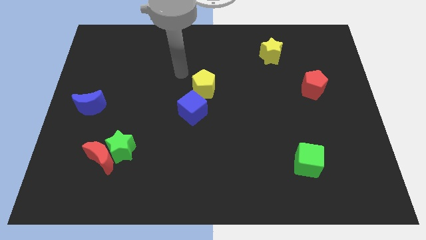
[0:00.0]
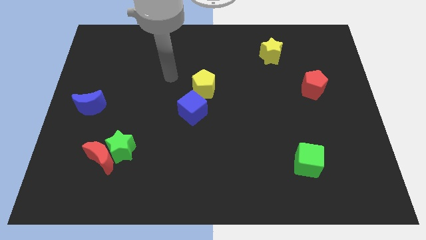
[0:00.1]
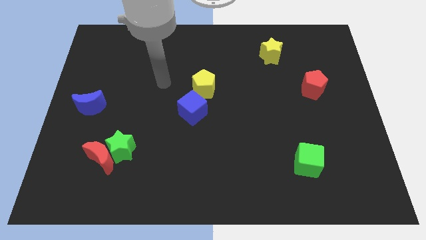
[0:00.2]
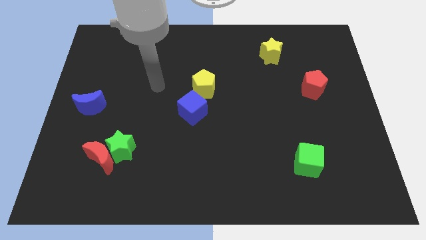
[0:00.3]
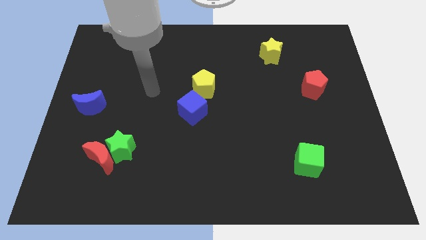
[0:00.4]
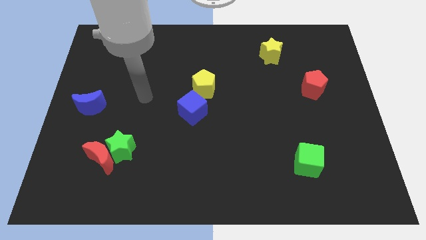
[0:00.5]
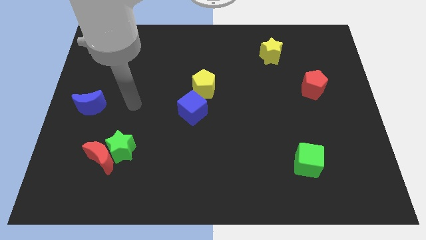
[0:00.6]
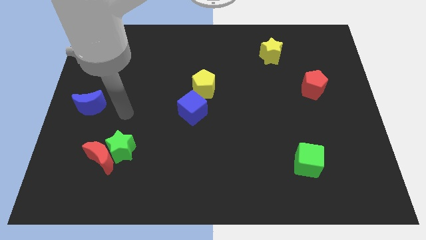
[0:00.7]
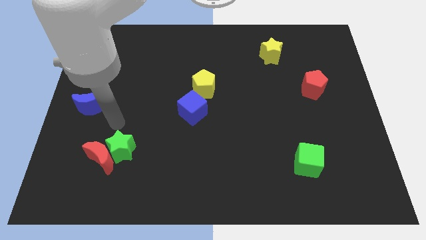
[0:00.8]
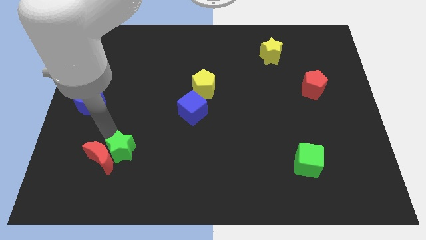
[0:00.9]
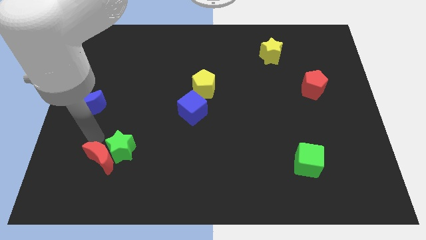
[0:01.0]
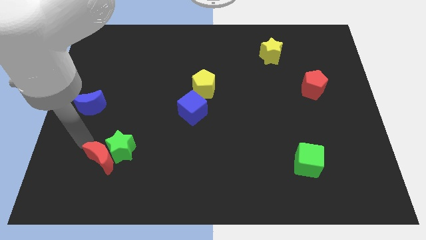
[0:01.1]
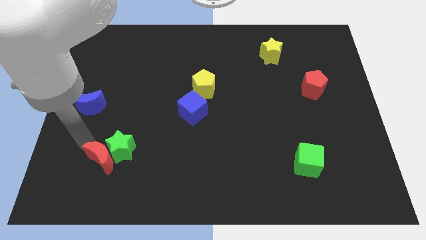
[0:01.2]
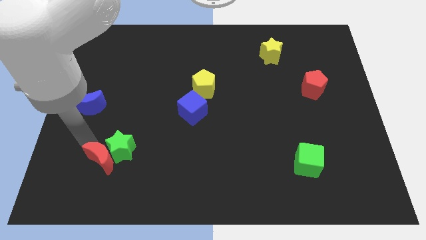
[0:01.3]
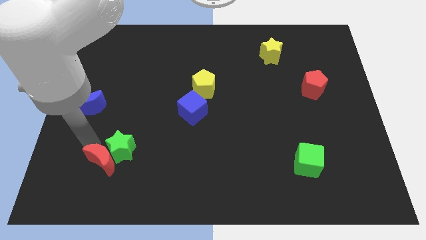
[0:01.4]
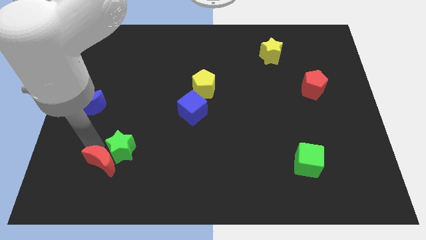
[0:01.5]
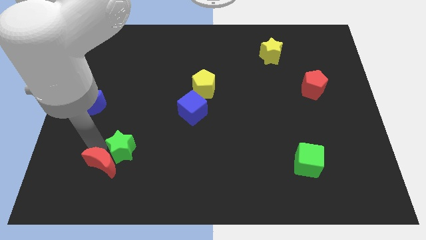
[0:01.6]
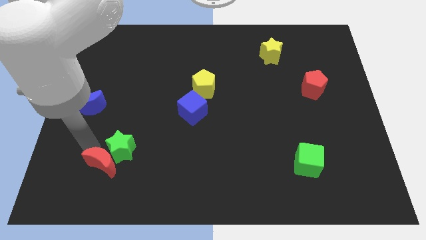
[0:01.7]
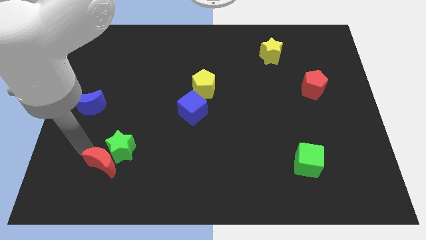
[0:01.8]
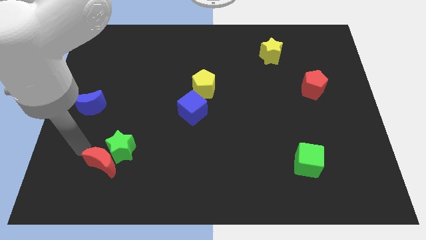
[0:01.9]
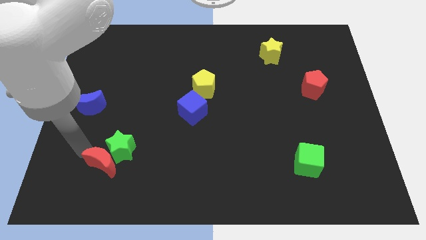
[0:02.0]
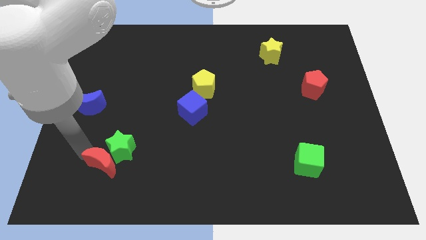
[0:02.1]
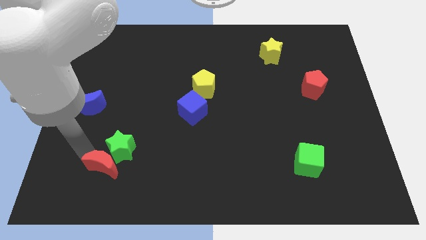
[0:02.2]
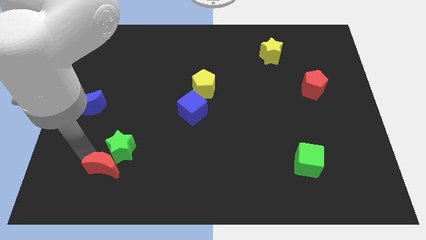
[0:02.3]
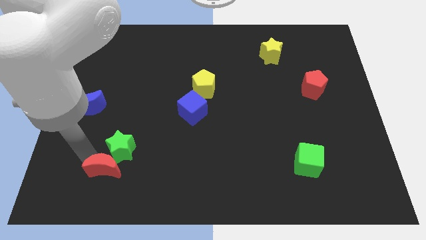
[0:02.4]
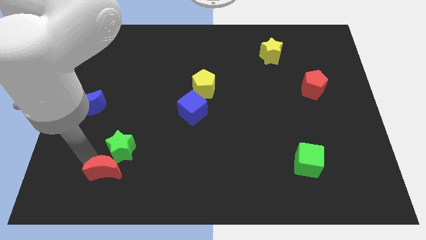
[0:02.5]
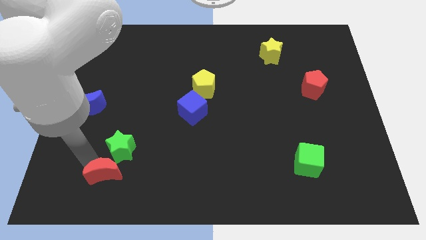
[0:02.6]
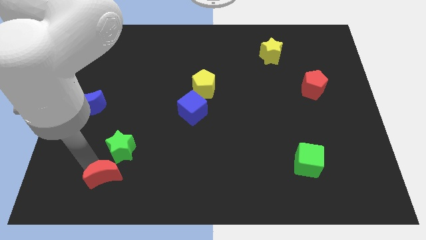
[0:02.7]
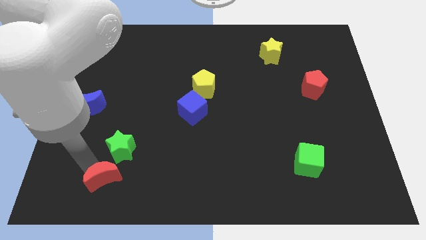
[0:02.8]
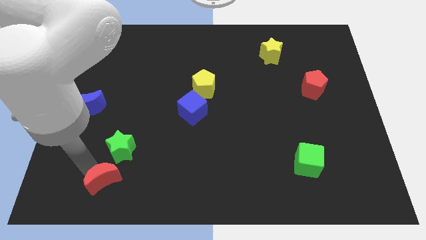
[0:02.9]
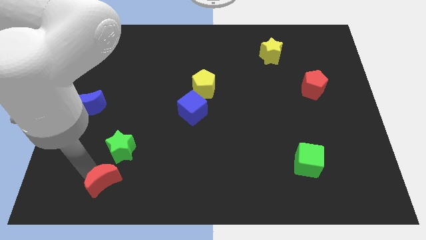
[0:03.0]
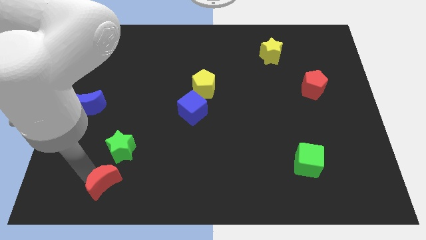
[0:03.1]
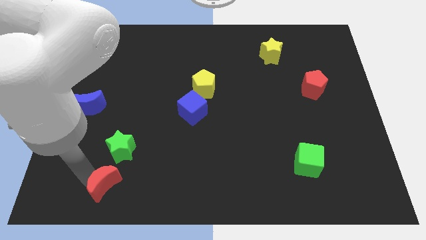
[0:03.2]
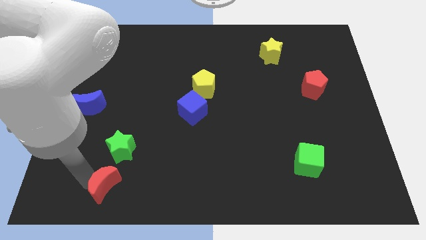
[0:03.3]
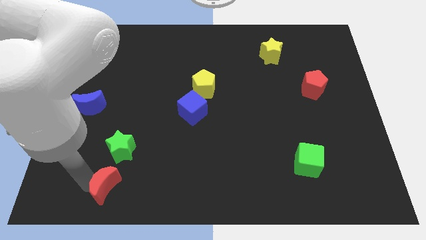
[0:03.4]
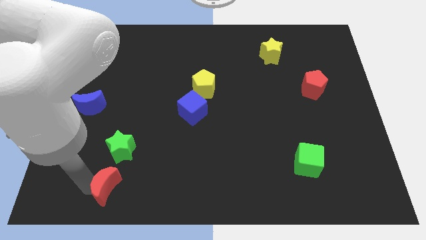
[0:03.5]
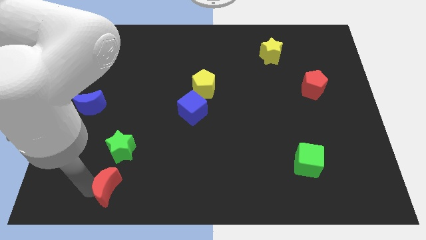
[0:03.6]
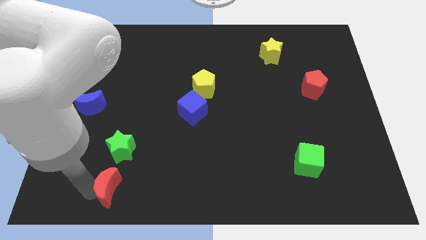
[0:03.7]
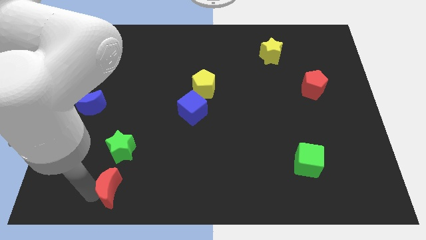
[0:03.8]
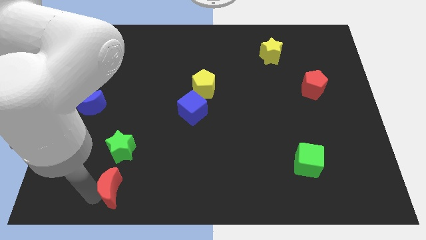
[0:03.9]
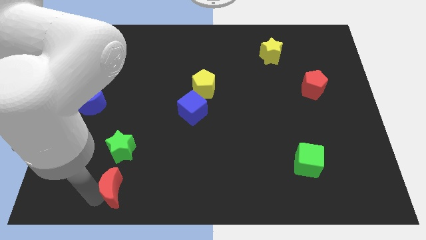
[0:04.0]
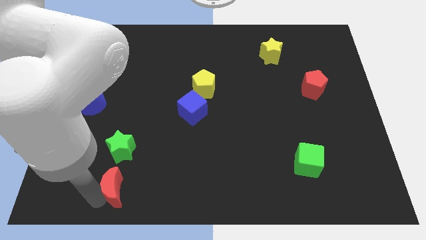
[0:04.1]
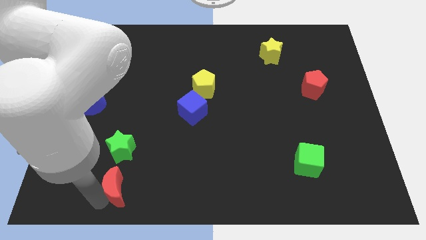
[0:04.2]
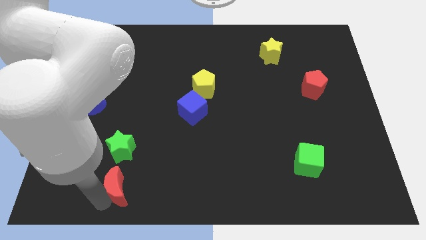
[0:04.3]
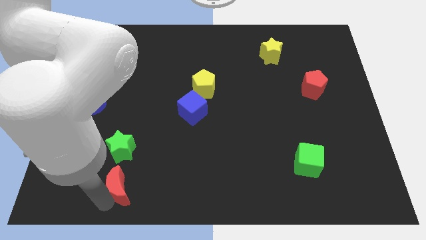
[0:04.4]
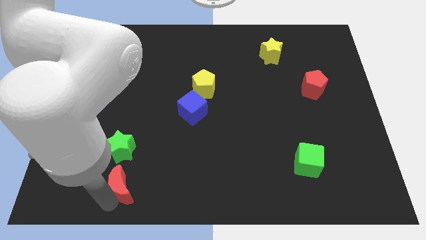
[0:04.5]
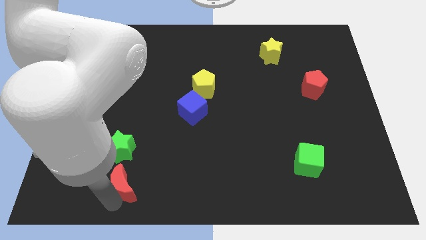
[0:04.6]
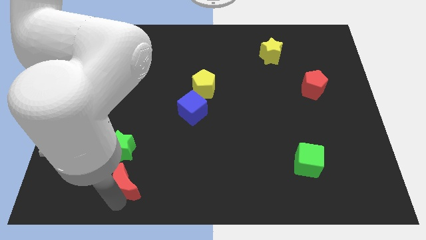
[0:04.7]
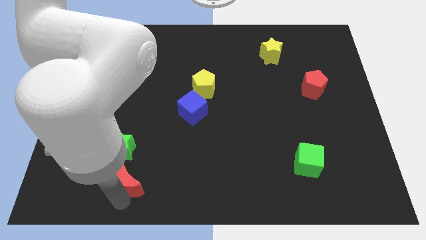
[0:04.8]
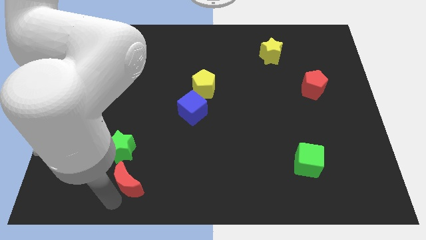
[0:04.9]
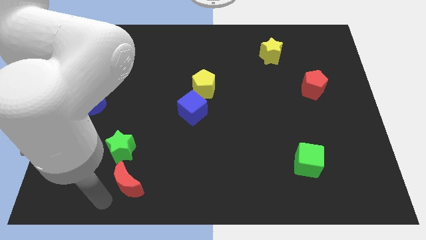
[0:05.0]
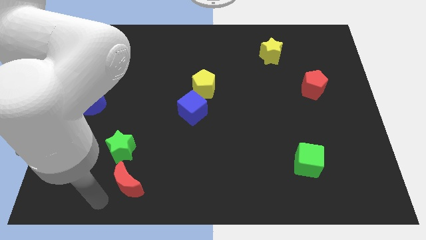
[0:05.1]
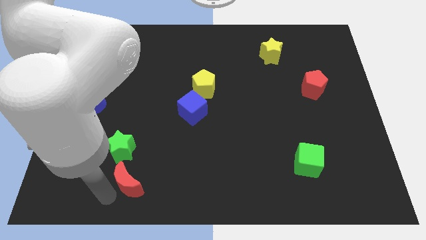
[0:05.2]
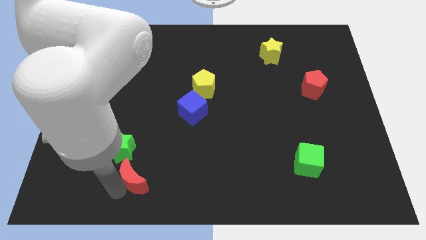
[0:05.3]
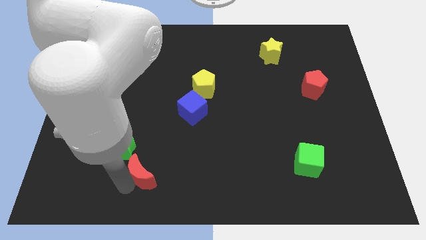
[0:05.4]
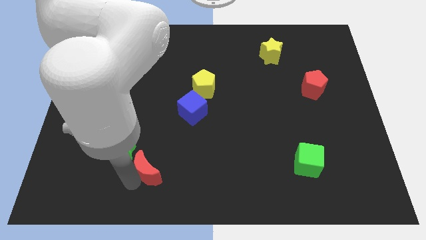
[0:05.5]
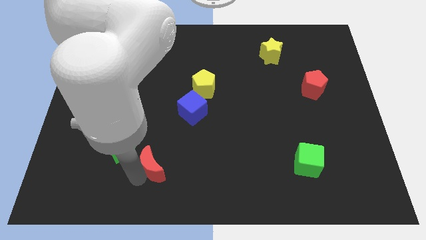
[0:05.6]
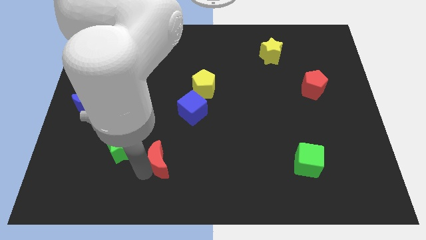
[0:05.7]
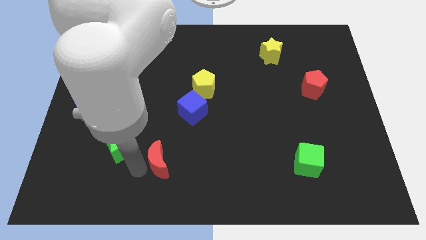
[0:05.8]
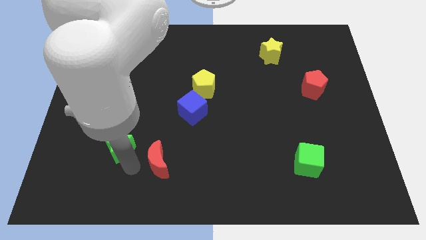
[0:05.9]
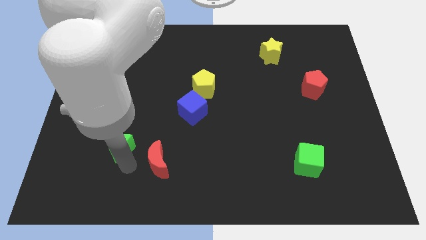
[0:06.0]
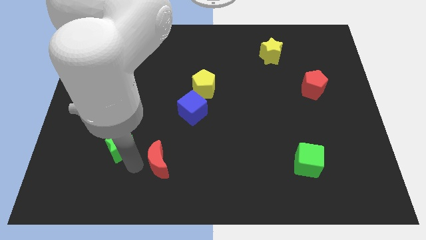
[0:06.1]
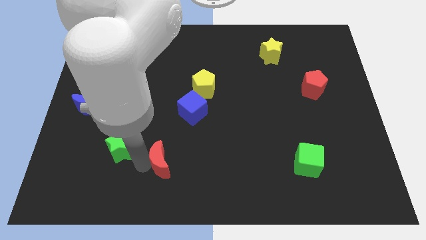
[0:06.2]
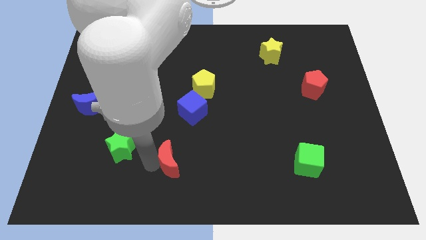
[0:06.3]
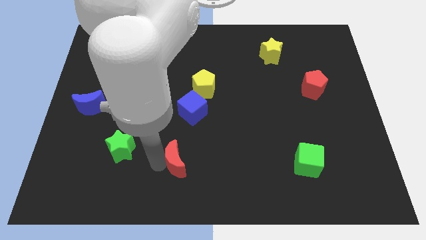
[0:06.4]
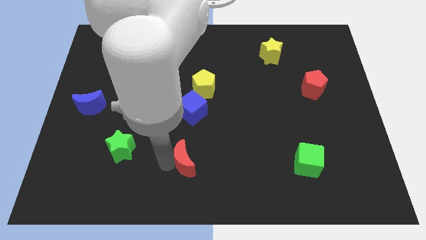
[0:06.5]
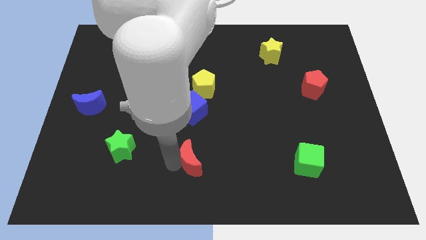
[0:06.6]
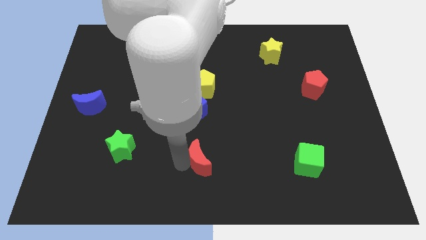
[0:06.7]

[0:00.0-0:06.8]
move the red moon to the right

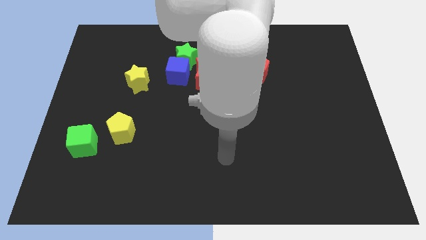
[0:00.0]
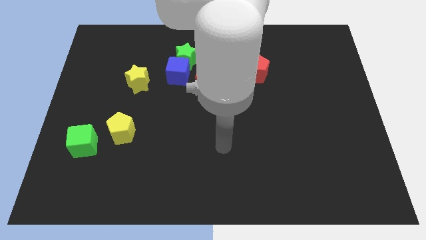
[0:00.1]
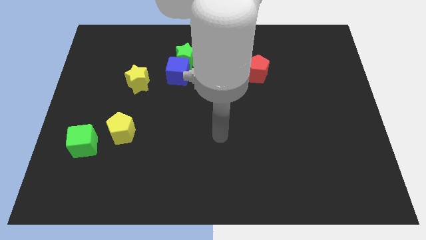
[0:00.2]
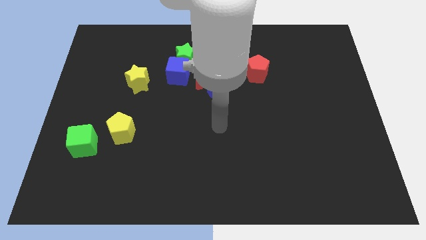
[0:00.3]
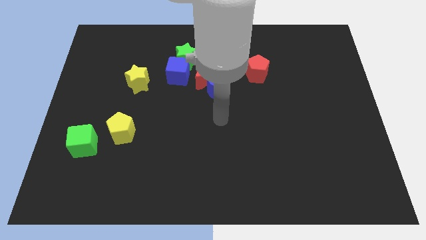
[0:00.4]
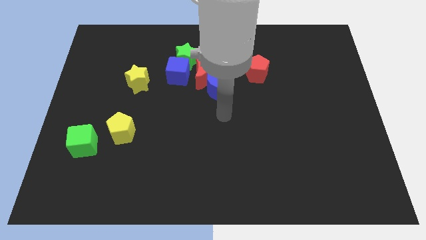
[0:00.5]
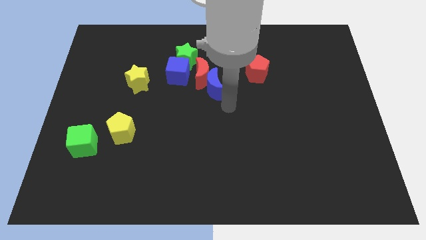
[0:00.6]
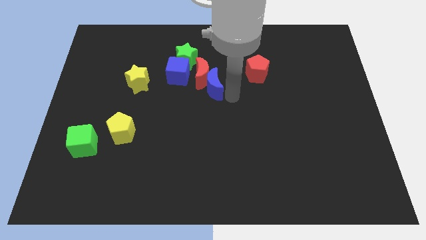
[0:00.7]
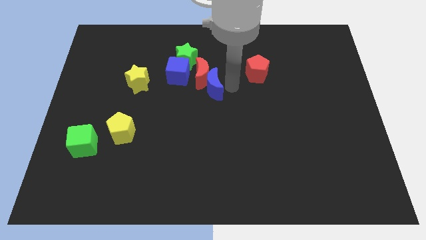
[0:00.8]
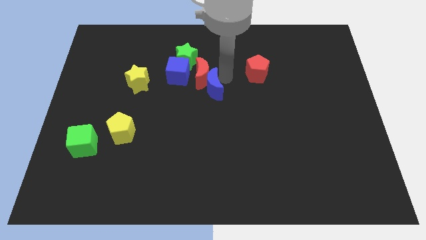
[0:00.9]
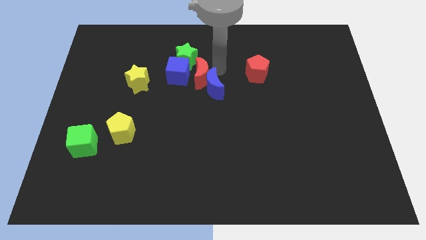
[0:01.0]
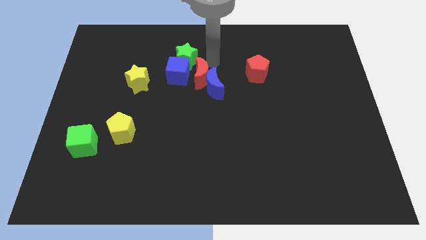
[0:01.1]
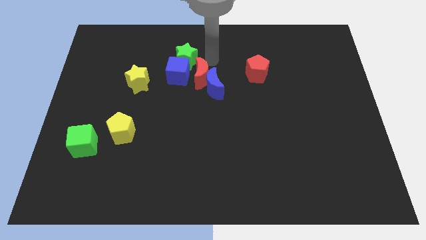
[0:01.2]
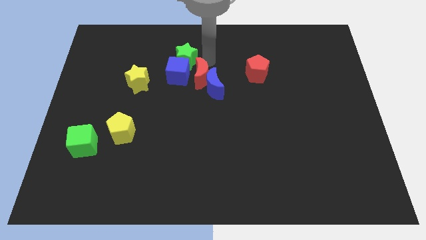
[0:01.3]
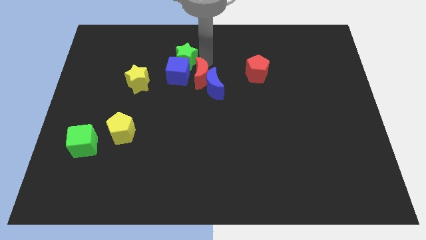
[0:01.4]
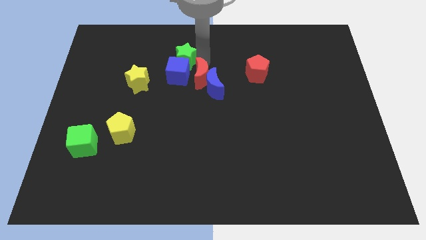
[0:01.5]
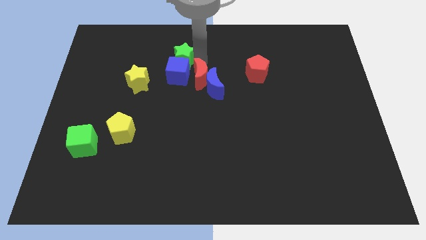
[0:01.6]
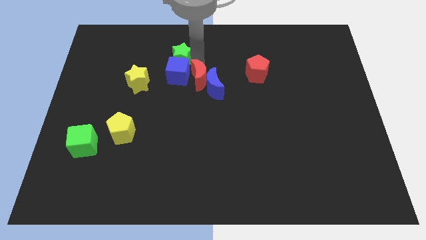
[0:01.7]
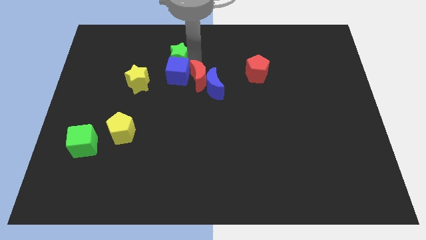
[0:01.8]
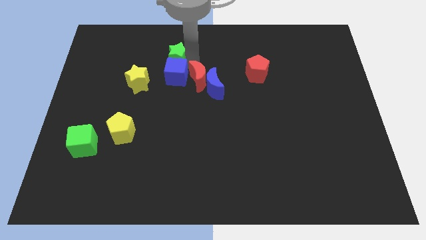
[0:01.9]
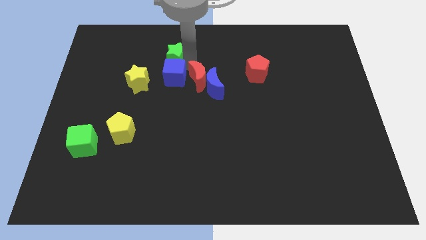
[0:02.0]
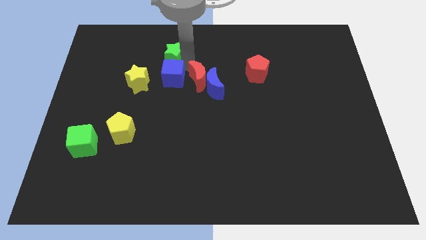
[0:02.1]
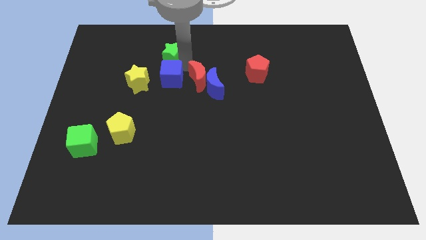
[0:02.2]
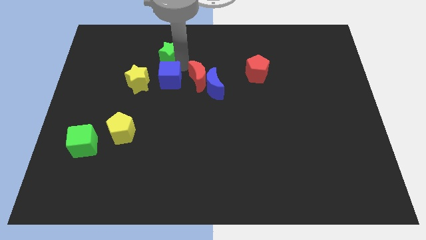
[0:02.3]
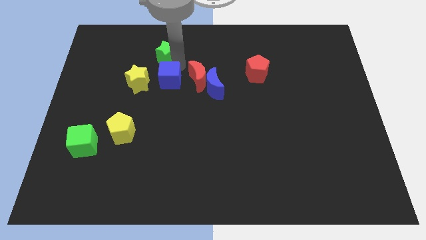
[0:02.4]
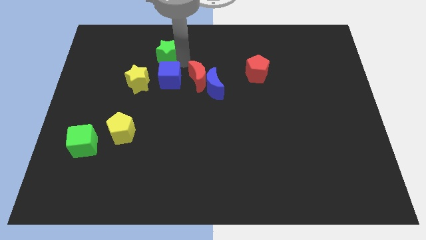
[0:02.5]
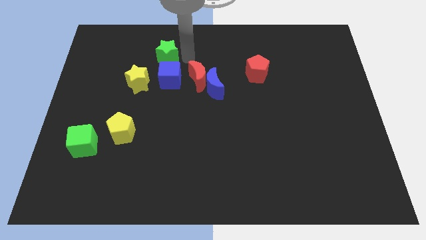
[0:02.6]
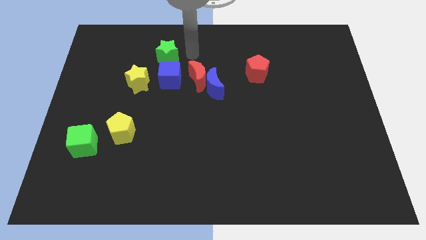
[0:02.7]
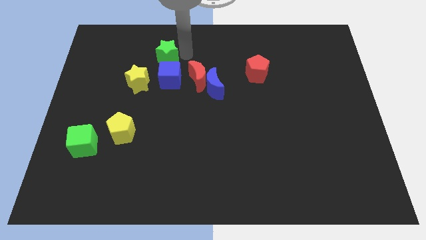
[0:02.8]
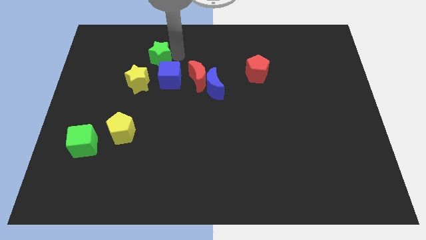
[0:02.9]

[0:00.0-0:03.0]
move the green star to the left a bit
